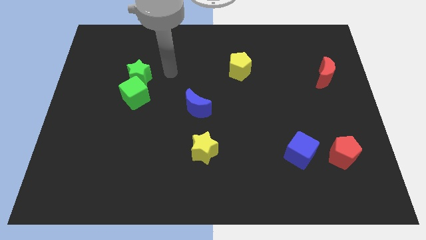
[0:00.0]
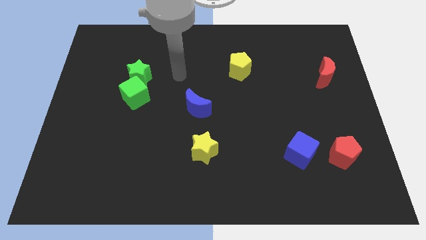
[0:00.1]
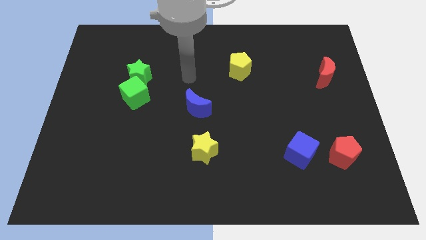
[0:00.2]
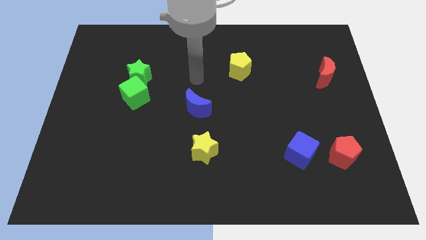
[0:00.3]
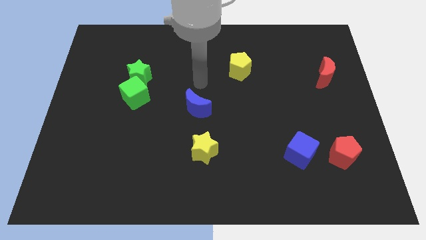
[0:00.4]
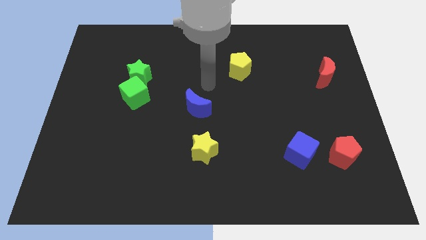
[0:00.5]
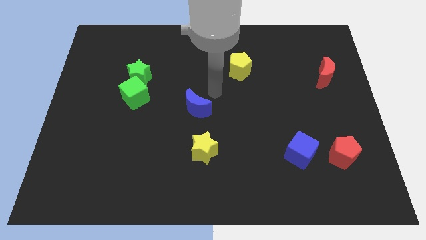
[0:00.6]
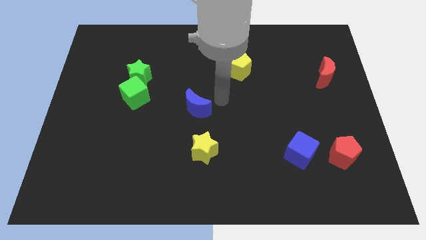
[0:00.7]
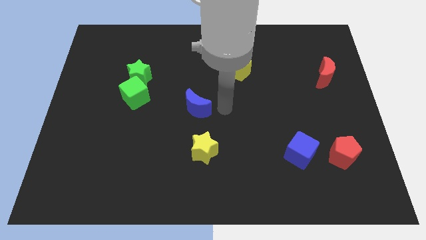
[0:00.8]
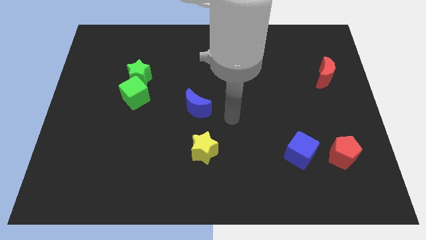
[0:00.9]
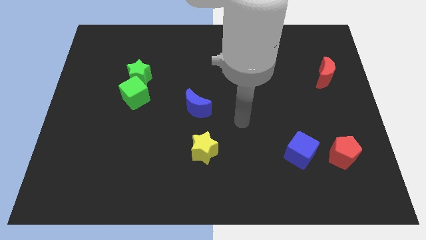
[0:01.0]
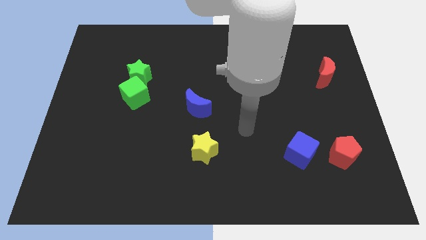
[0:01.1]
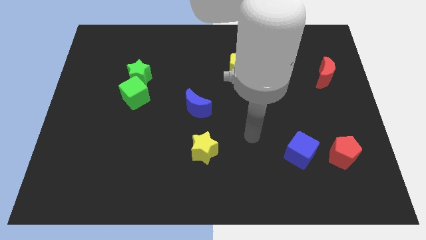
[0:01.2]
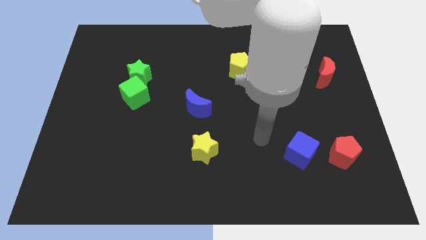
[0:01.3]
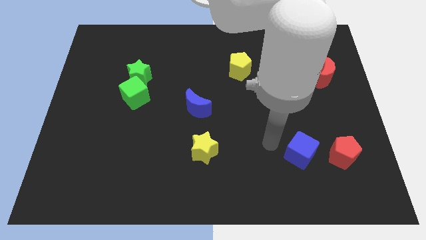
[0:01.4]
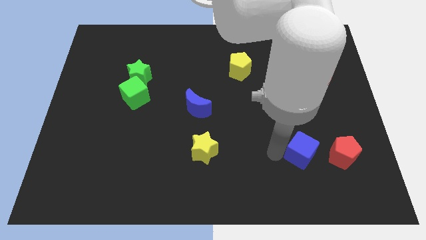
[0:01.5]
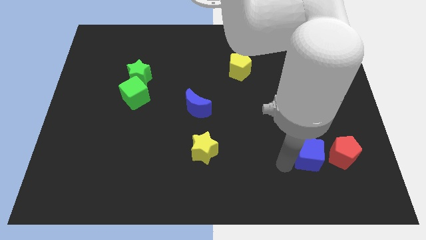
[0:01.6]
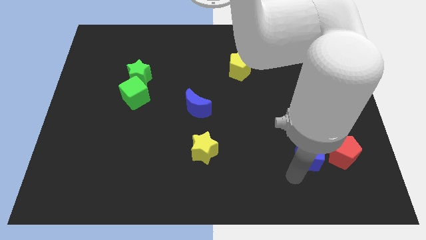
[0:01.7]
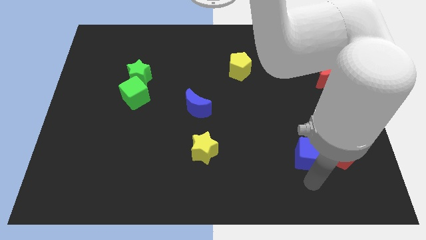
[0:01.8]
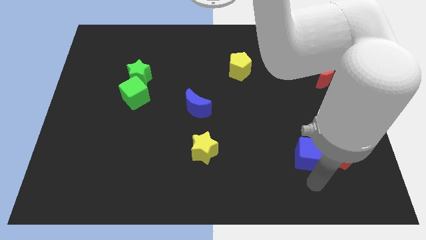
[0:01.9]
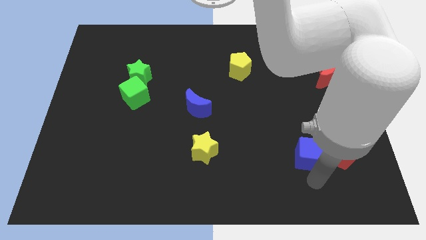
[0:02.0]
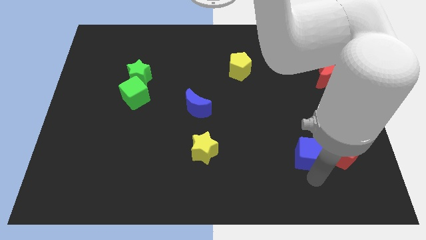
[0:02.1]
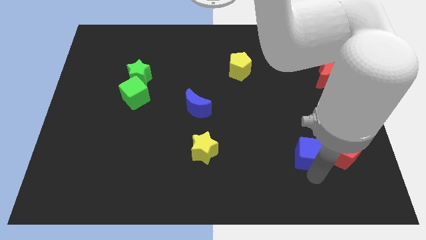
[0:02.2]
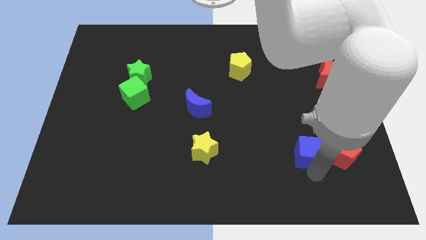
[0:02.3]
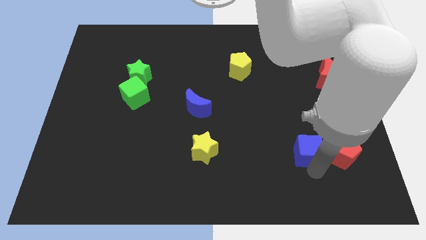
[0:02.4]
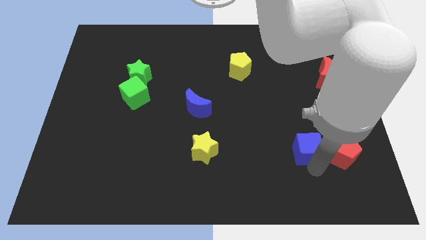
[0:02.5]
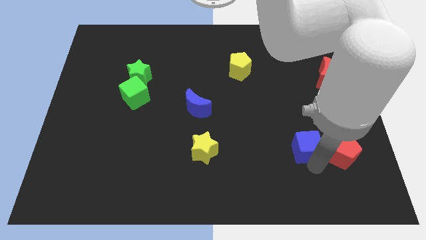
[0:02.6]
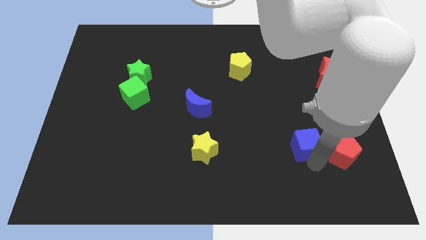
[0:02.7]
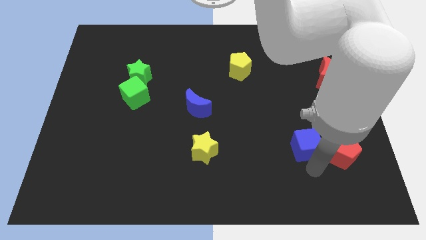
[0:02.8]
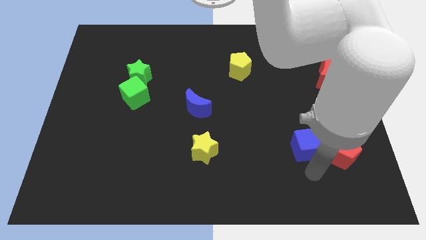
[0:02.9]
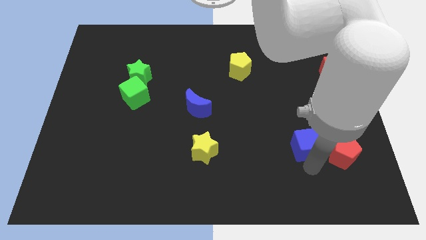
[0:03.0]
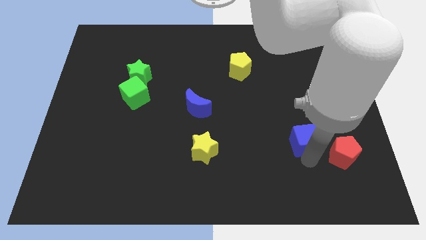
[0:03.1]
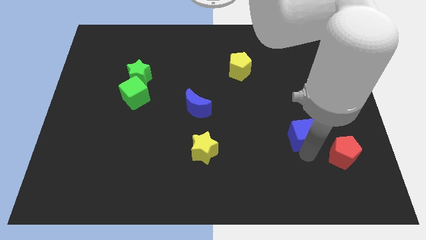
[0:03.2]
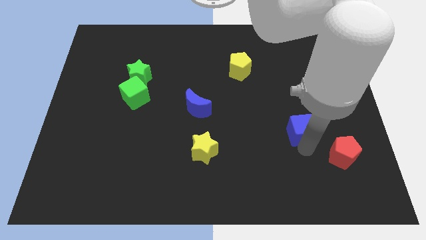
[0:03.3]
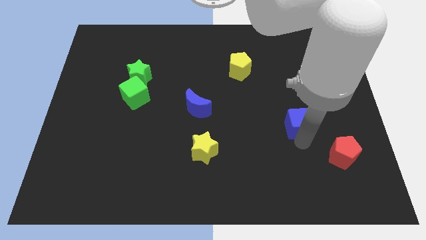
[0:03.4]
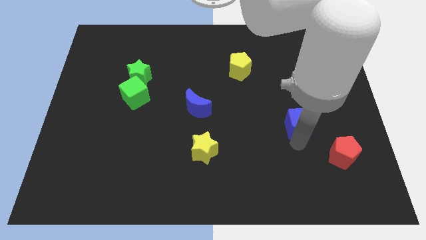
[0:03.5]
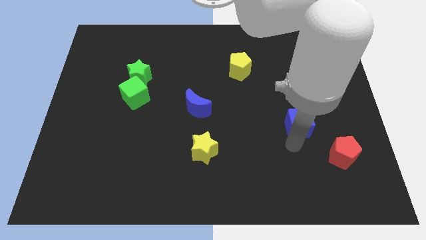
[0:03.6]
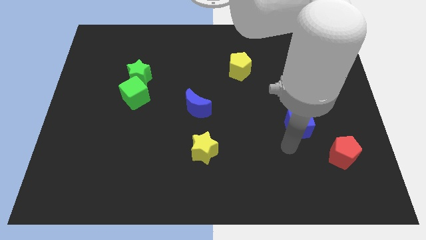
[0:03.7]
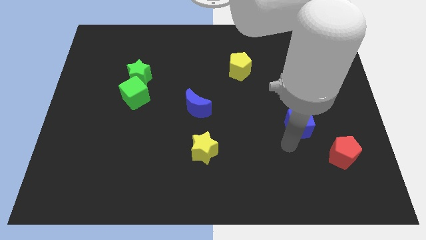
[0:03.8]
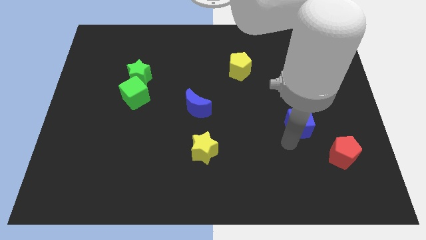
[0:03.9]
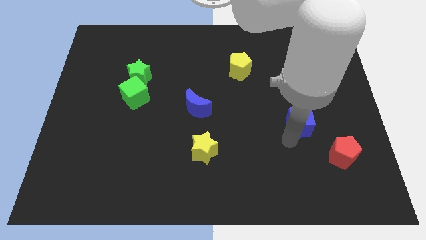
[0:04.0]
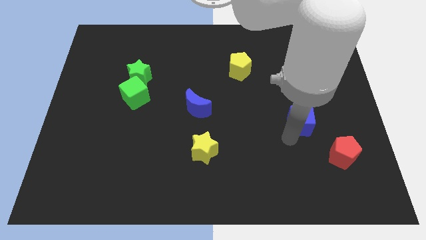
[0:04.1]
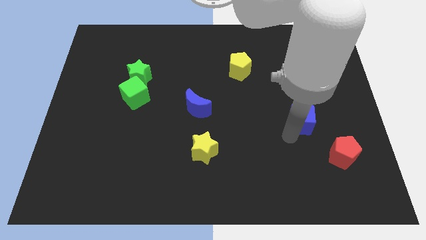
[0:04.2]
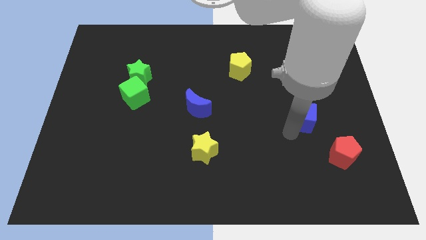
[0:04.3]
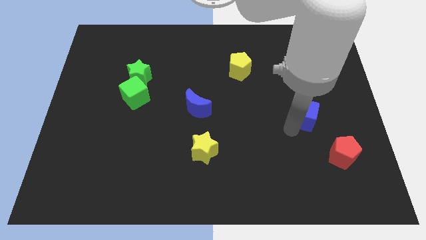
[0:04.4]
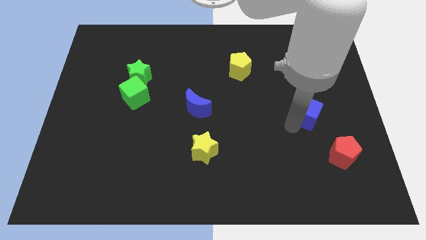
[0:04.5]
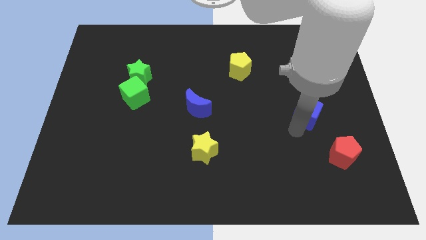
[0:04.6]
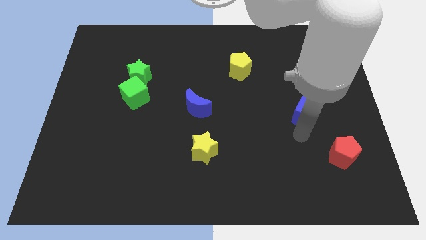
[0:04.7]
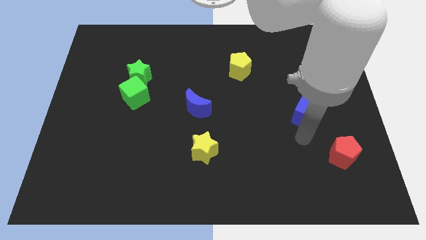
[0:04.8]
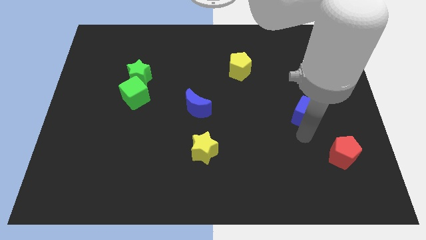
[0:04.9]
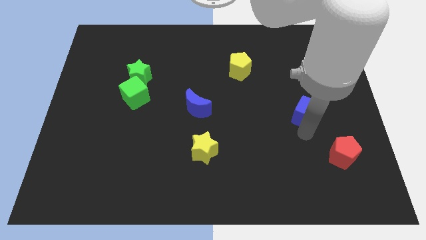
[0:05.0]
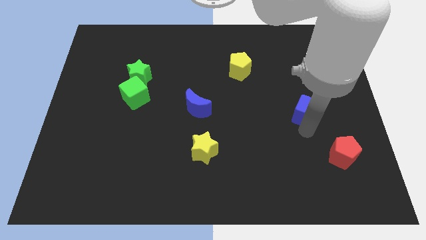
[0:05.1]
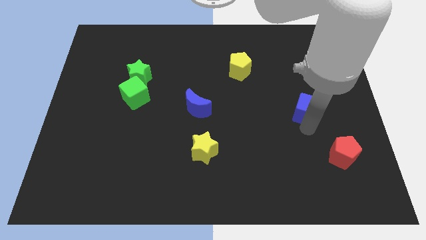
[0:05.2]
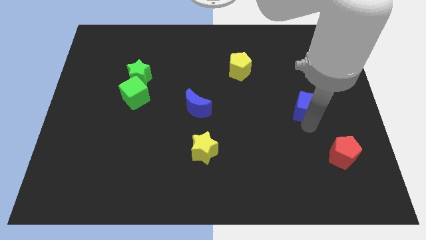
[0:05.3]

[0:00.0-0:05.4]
move the blue cube to the bottom left of the red moon

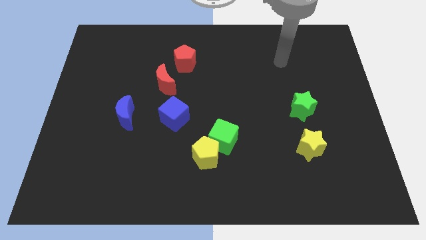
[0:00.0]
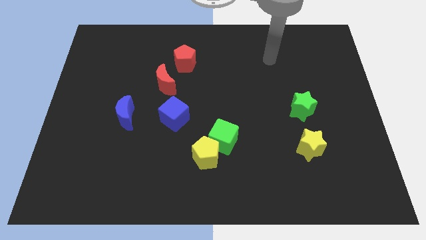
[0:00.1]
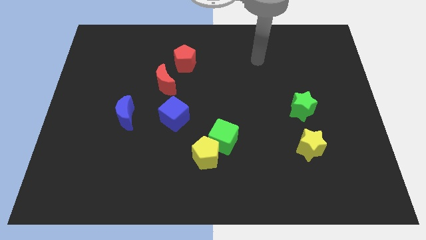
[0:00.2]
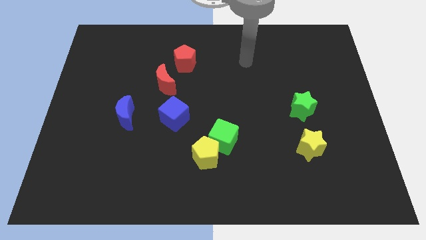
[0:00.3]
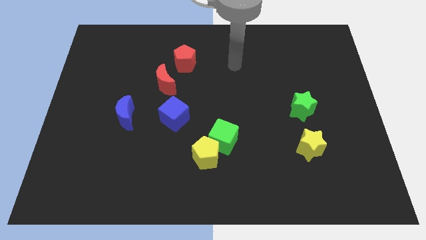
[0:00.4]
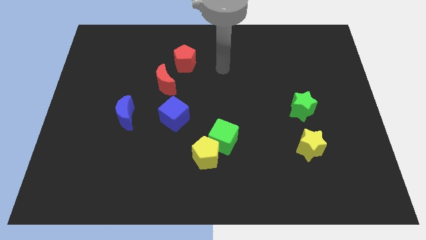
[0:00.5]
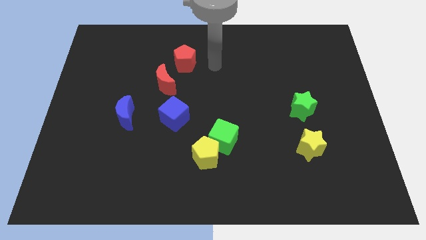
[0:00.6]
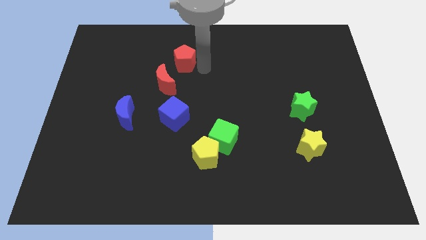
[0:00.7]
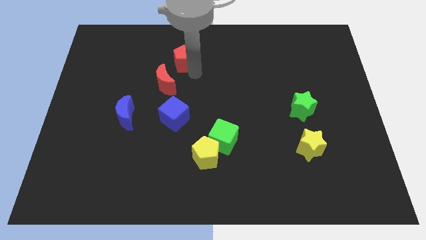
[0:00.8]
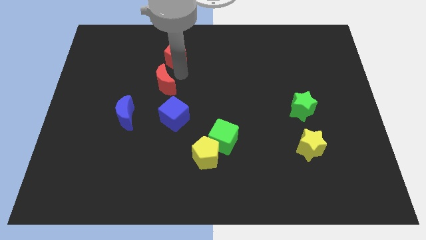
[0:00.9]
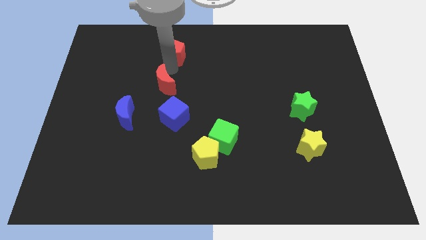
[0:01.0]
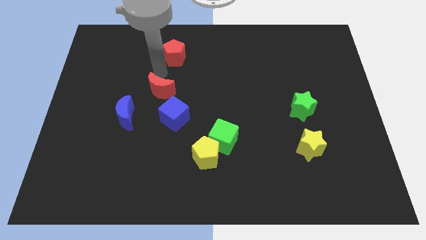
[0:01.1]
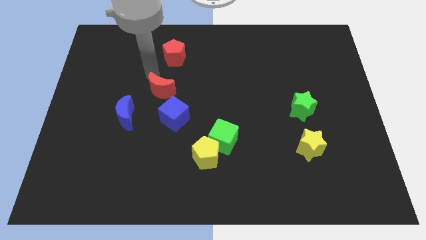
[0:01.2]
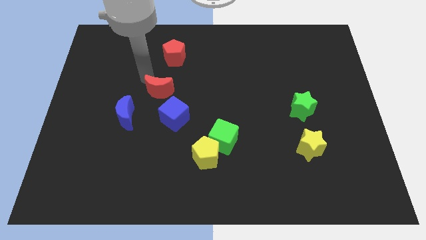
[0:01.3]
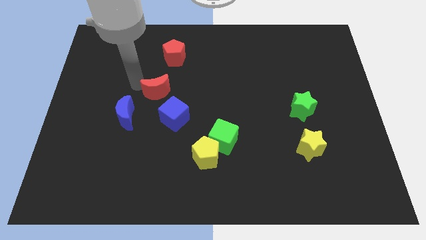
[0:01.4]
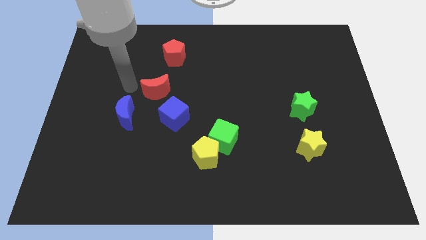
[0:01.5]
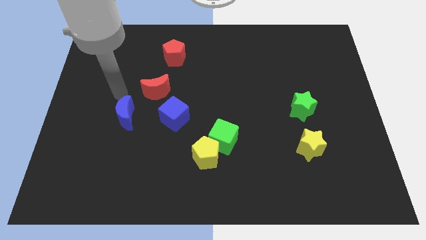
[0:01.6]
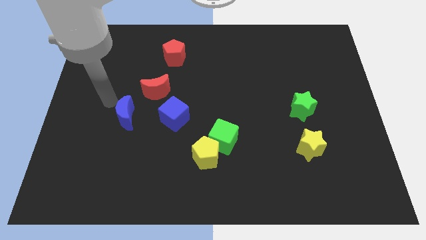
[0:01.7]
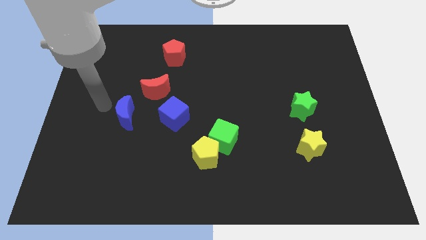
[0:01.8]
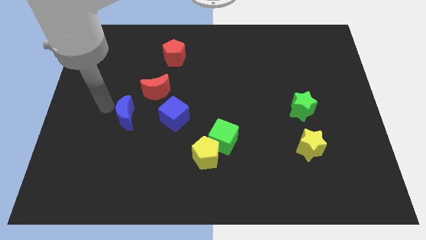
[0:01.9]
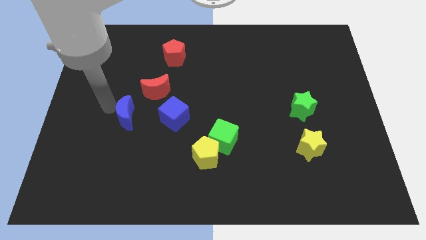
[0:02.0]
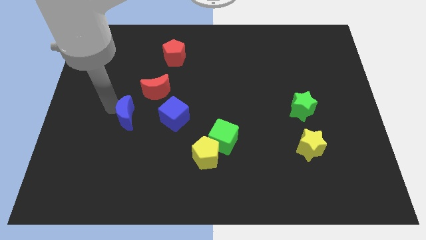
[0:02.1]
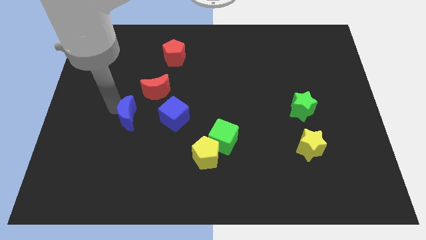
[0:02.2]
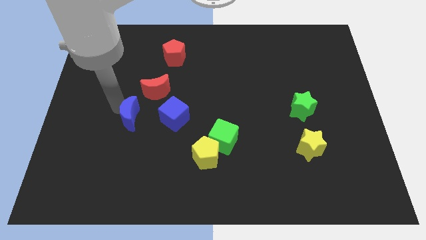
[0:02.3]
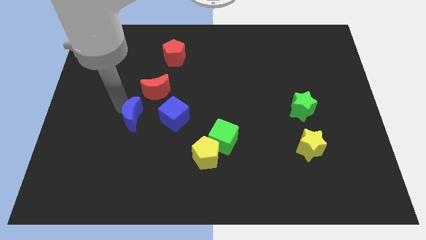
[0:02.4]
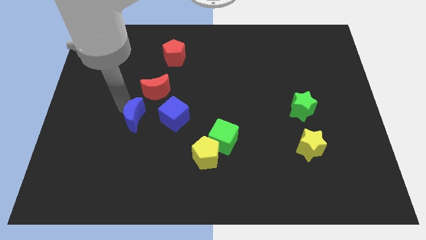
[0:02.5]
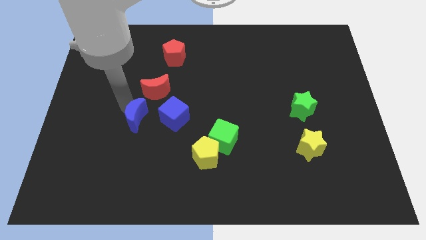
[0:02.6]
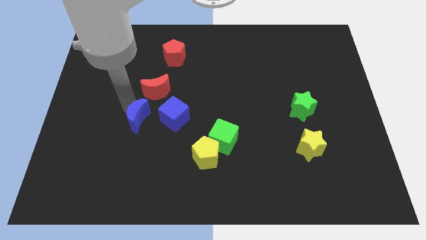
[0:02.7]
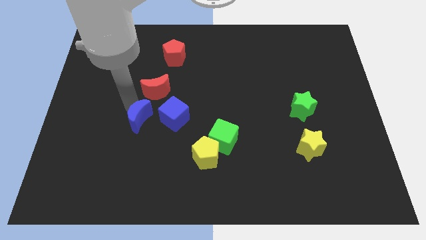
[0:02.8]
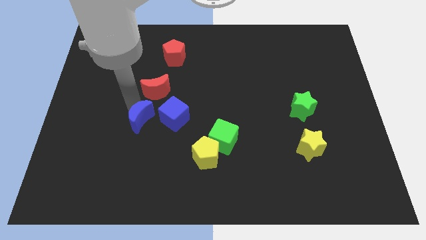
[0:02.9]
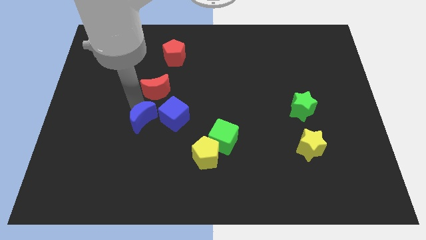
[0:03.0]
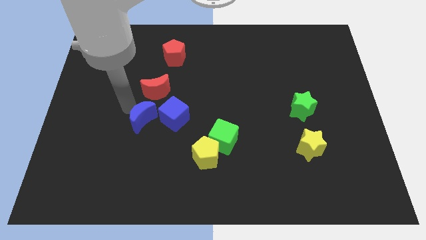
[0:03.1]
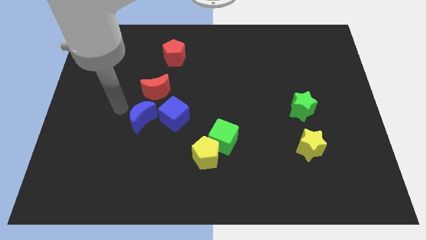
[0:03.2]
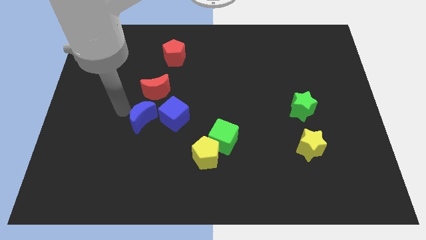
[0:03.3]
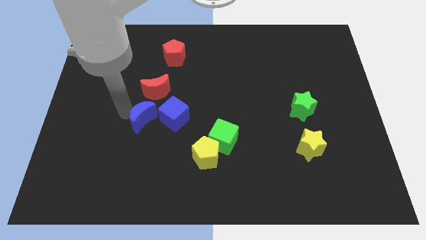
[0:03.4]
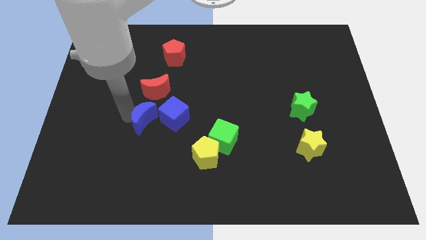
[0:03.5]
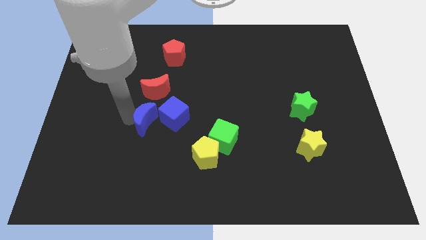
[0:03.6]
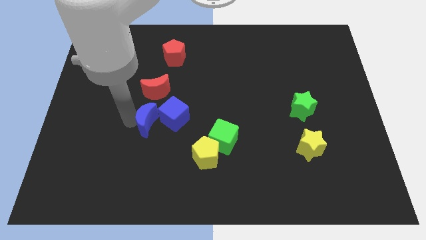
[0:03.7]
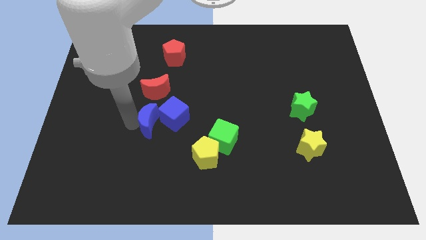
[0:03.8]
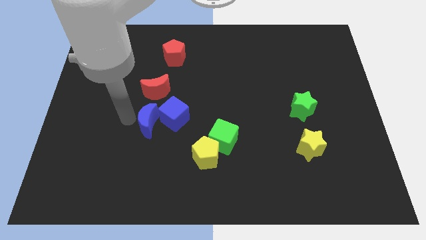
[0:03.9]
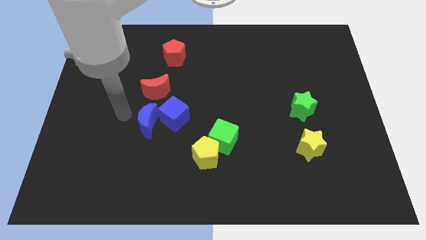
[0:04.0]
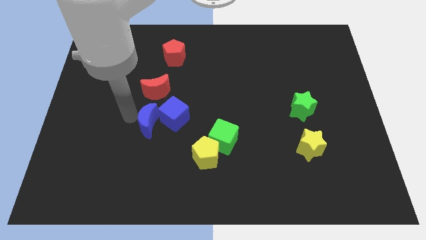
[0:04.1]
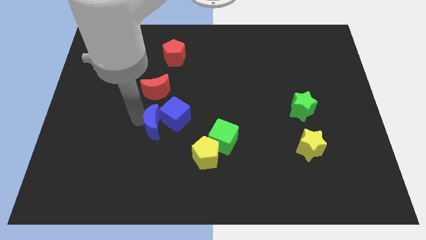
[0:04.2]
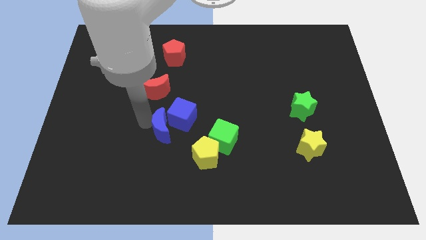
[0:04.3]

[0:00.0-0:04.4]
push the blue moon to the top left of the yellow pentagon
